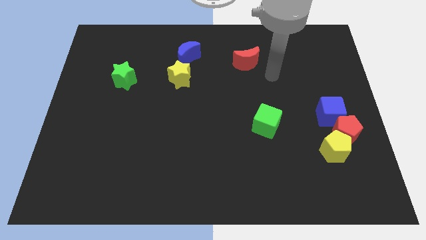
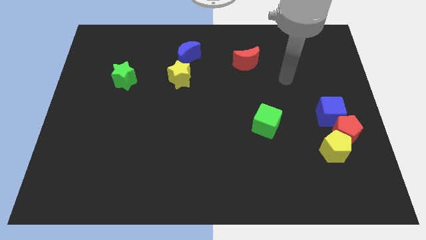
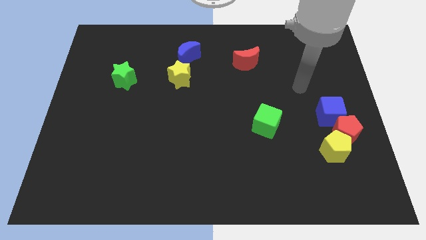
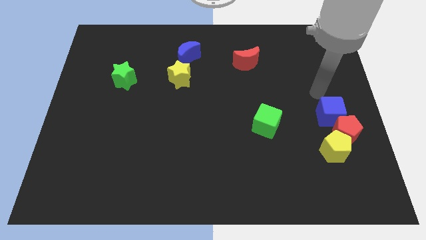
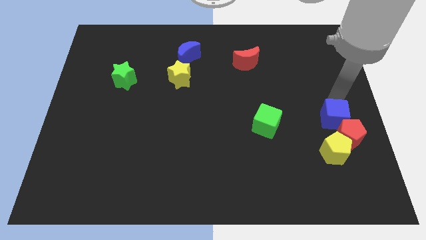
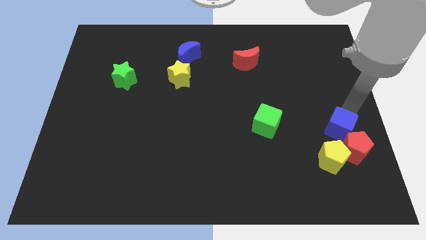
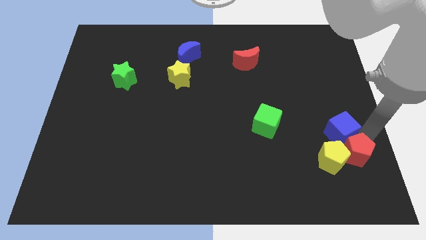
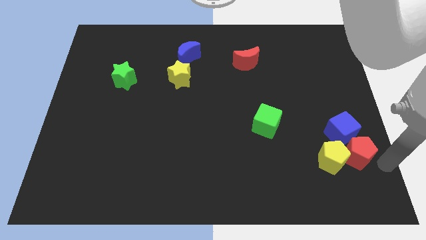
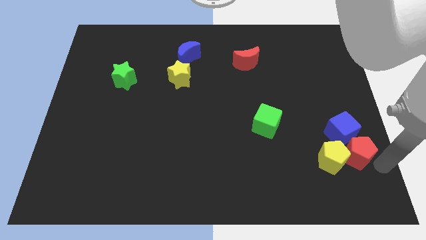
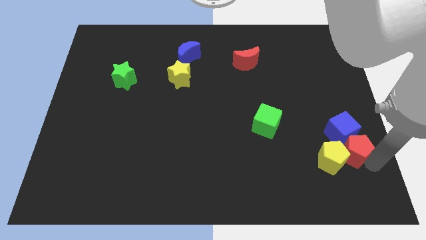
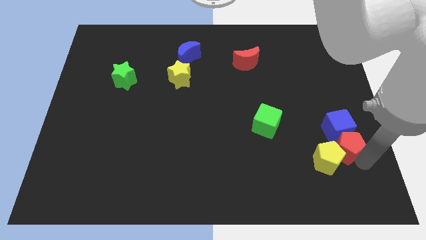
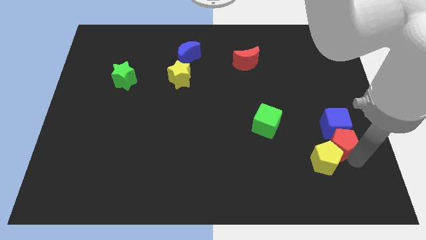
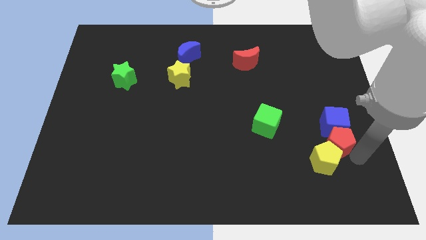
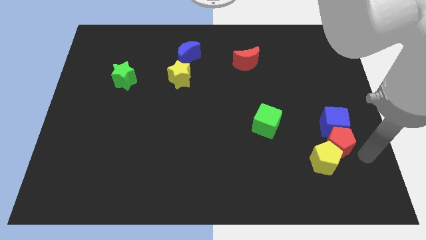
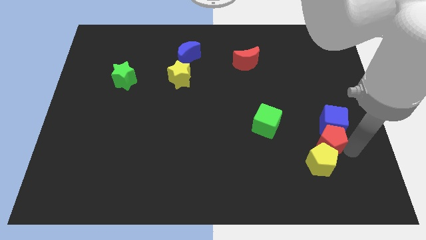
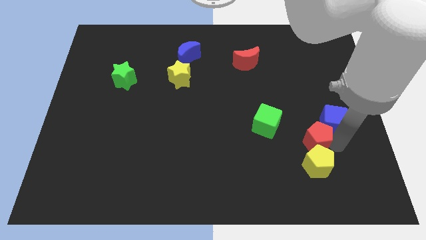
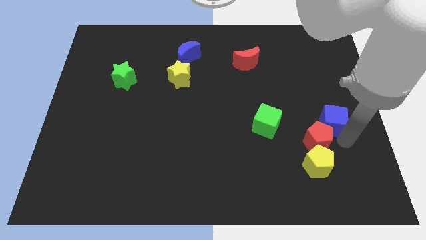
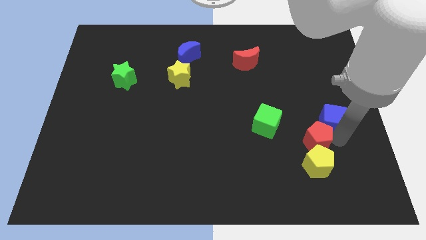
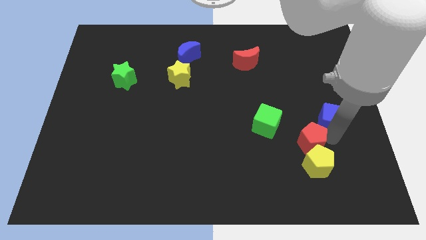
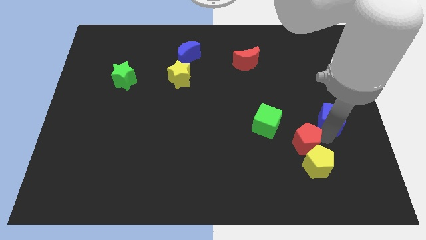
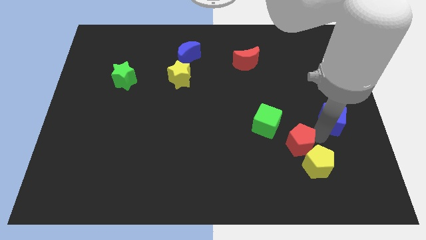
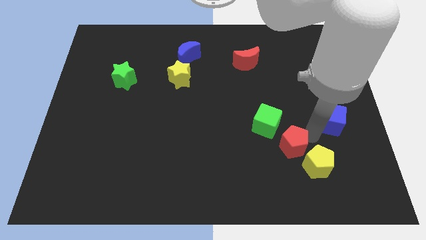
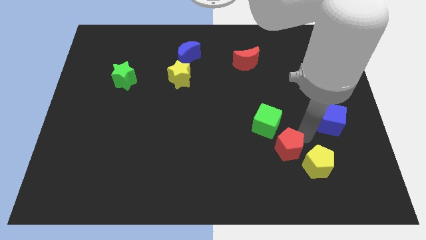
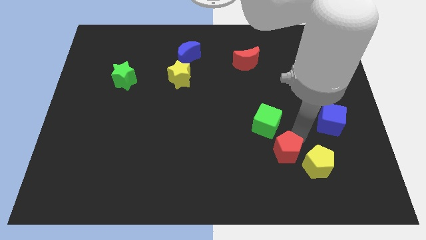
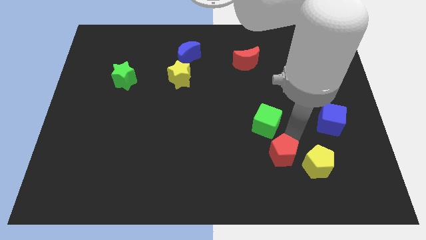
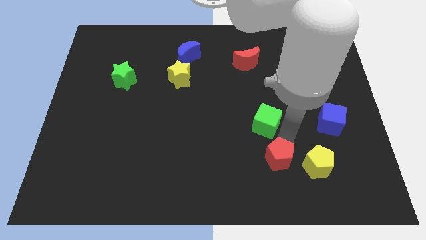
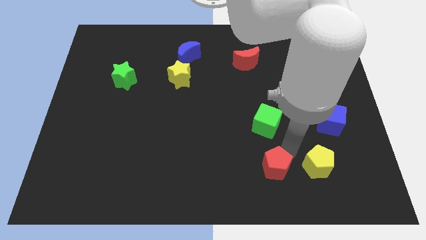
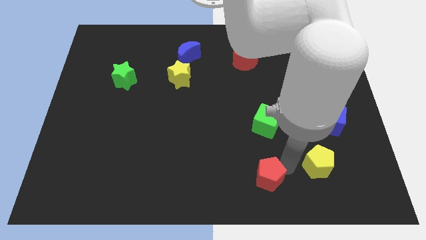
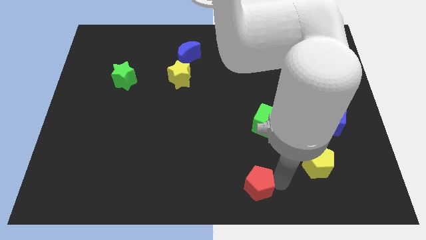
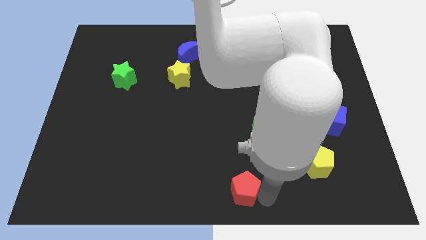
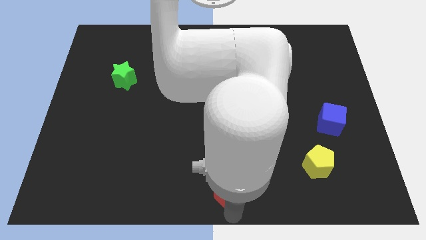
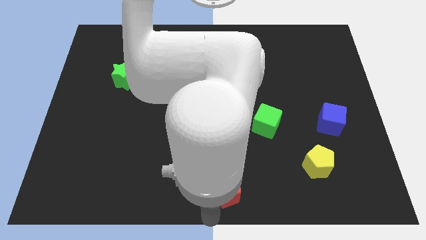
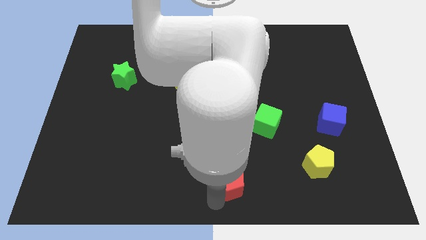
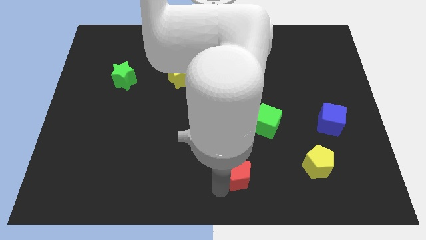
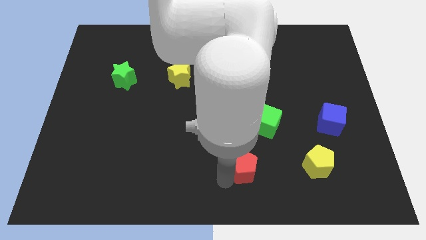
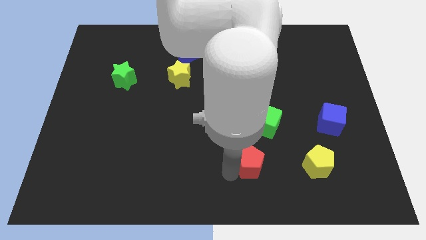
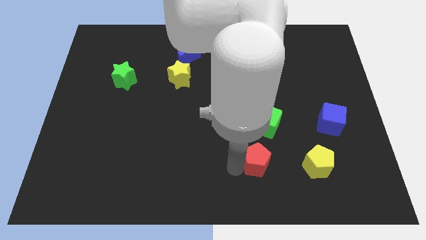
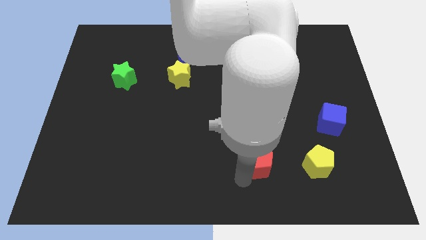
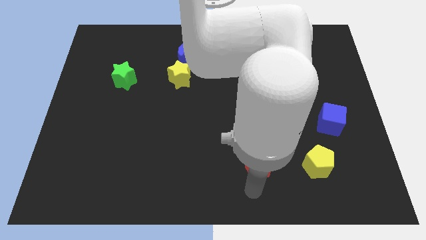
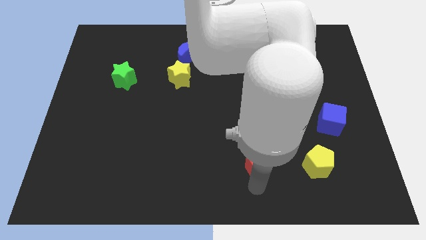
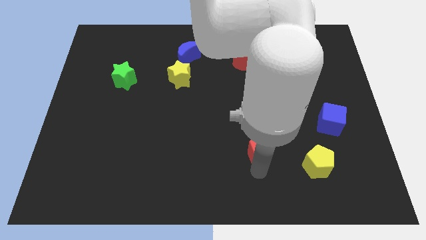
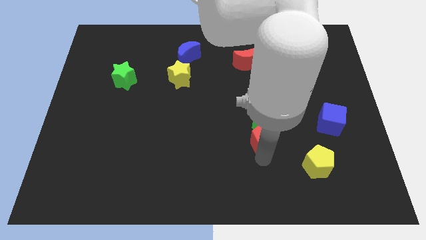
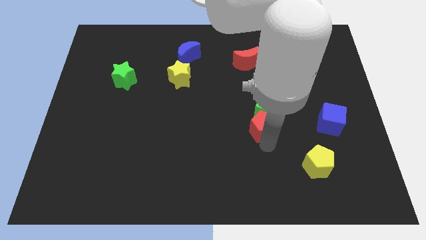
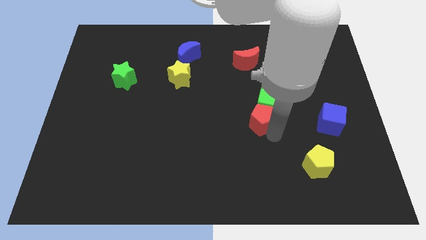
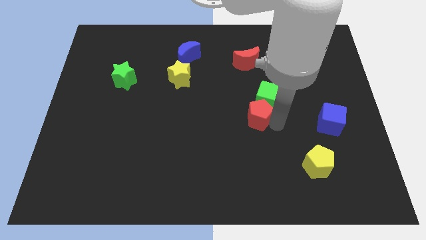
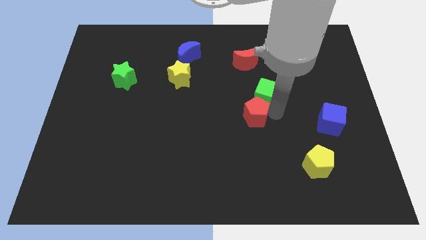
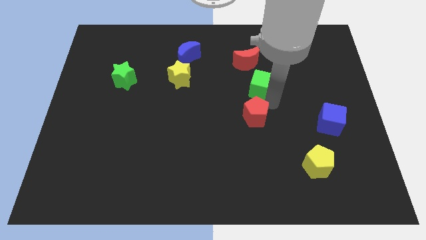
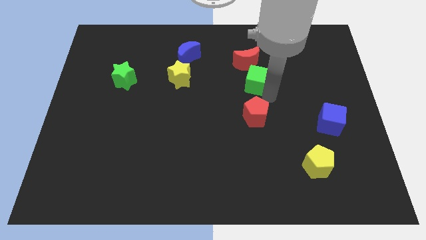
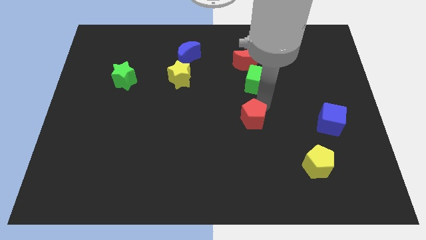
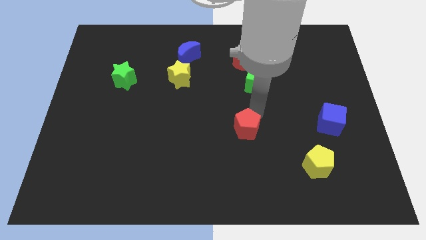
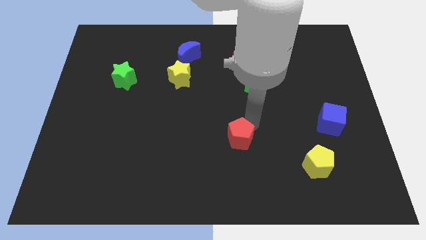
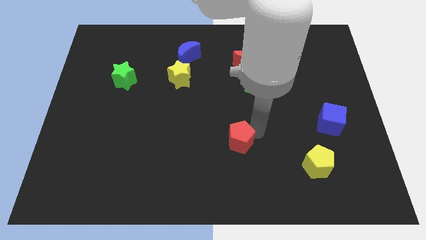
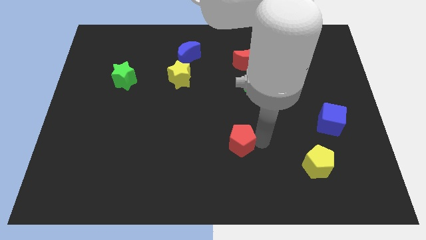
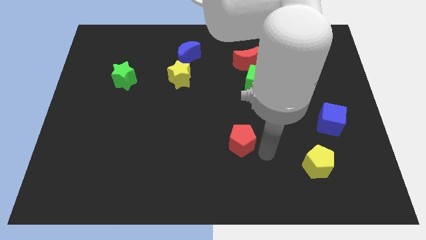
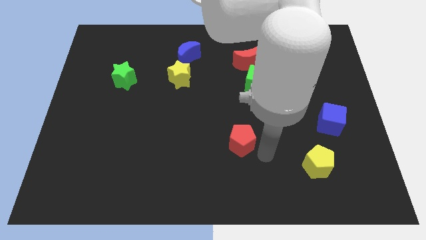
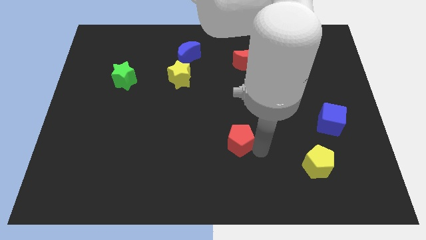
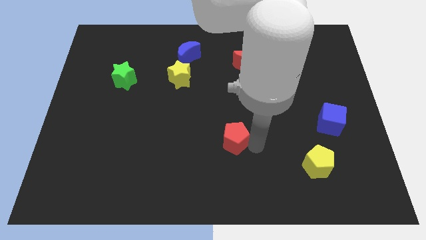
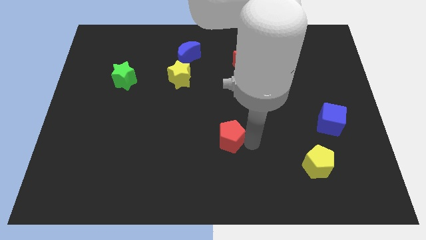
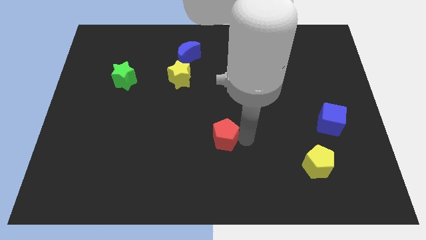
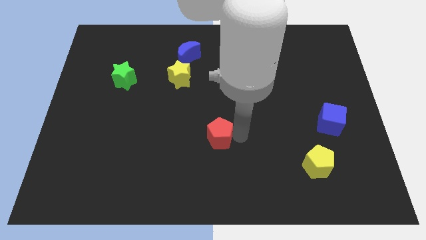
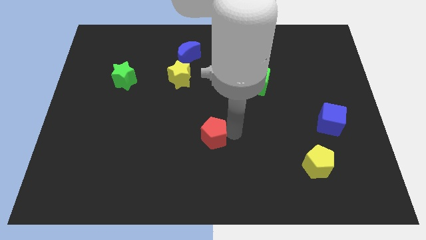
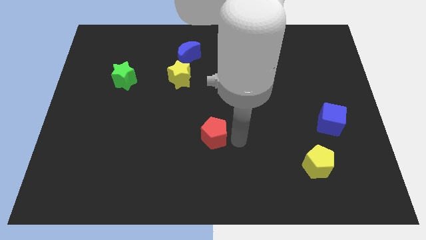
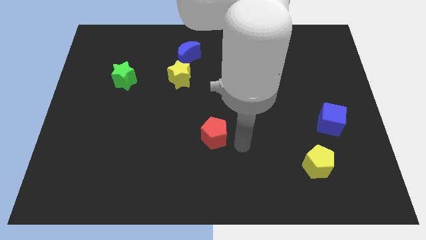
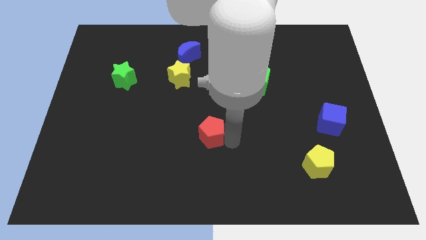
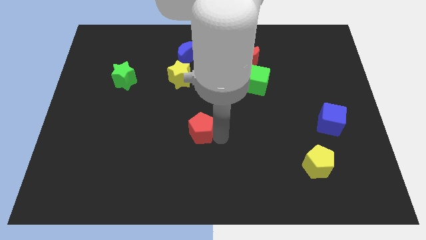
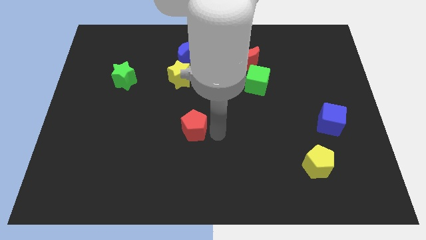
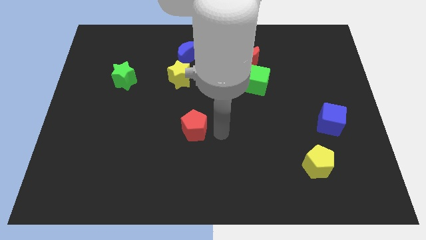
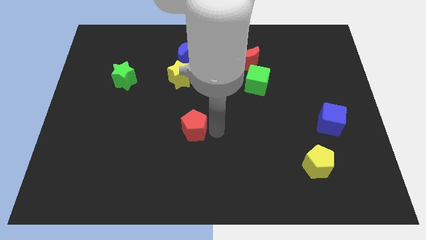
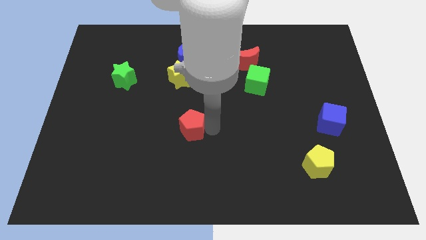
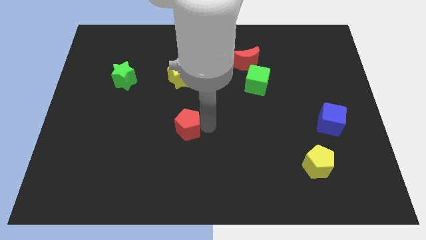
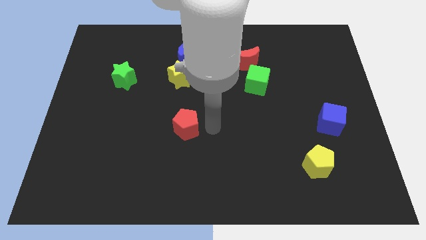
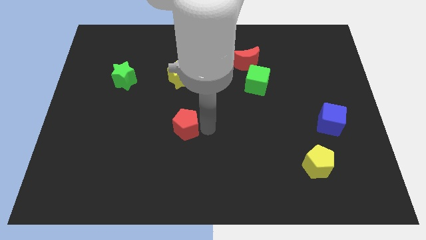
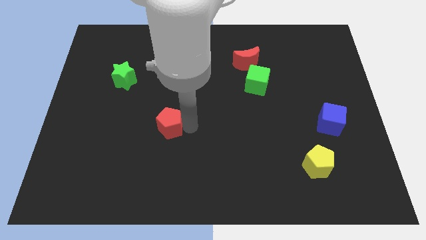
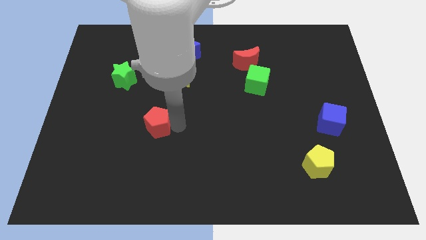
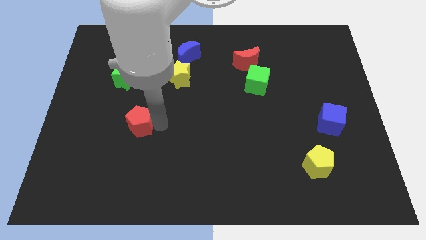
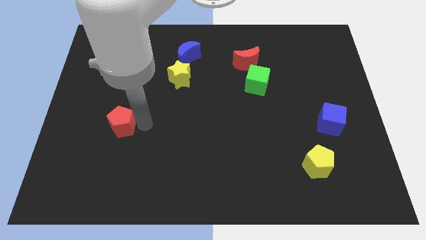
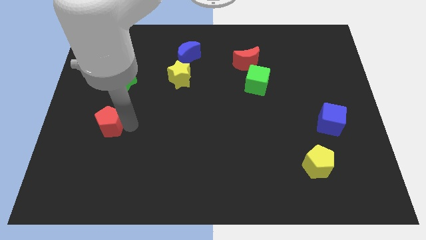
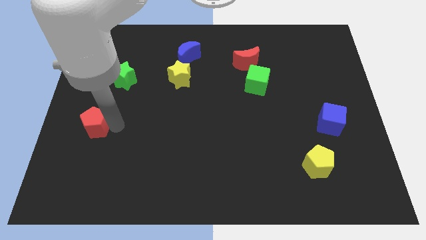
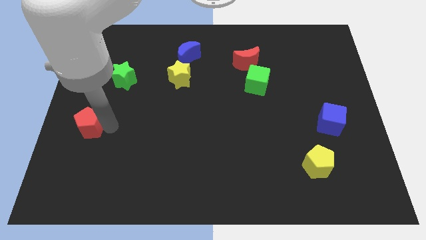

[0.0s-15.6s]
put the red pentagon to the left side
